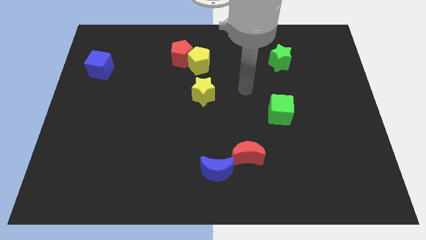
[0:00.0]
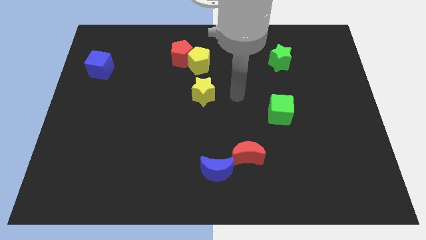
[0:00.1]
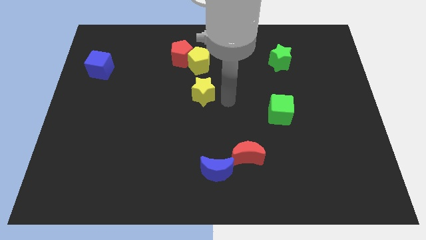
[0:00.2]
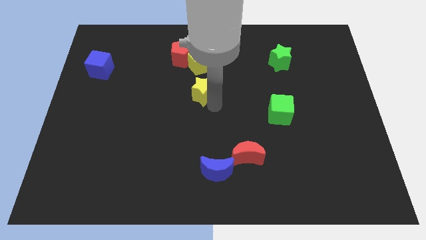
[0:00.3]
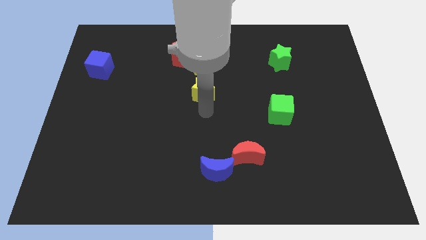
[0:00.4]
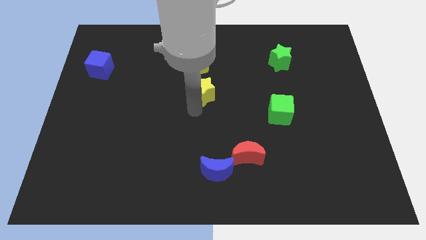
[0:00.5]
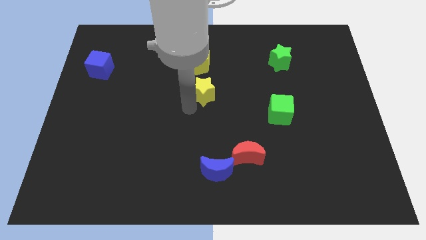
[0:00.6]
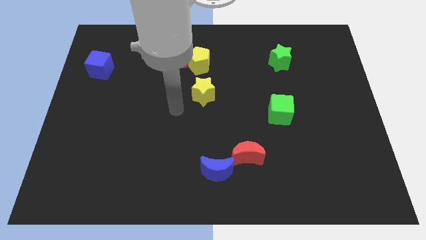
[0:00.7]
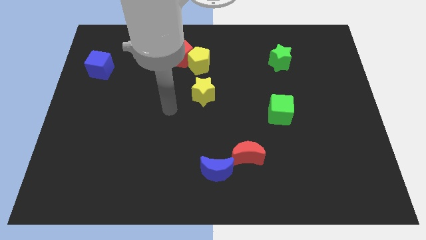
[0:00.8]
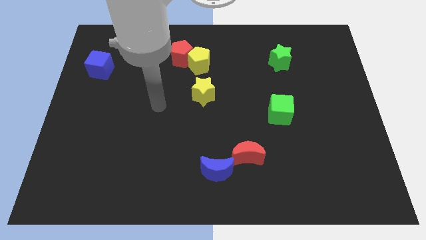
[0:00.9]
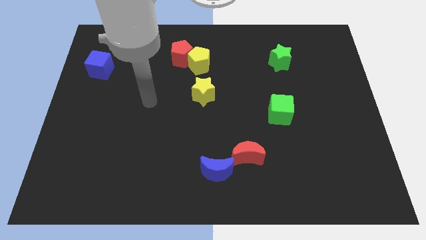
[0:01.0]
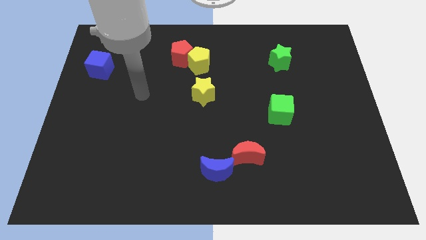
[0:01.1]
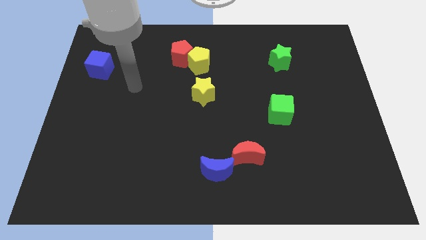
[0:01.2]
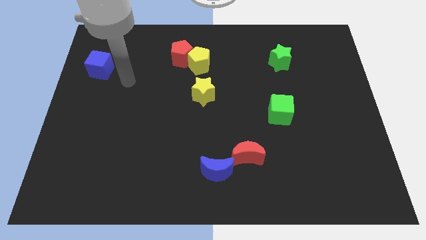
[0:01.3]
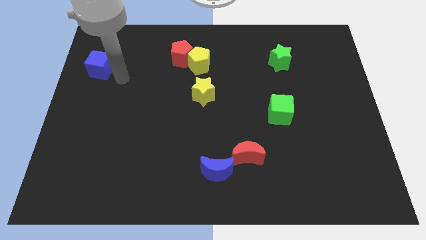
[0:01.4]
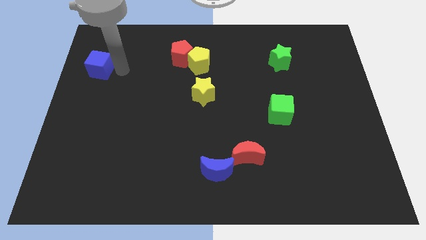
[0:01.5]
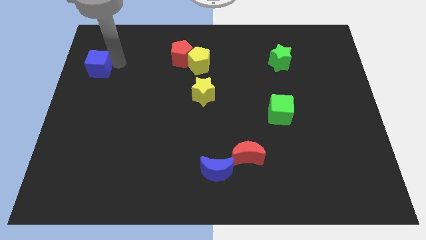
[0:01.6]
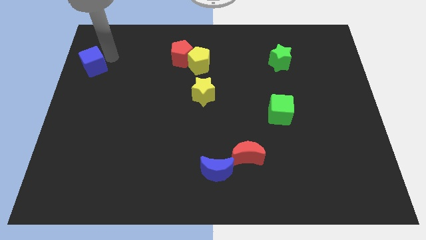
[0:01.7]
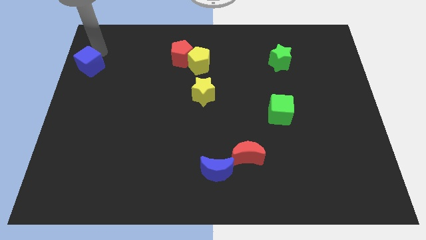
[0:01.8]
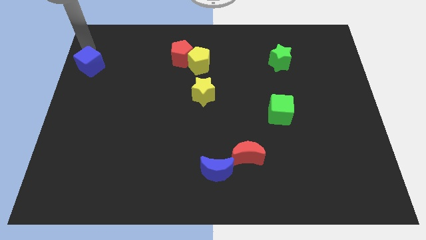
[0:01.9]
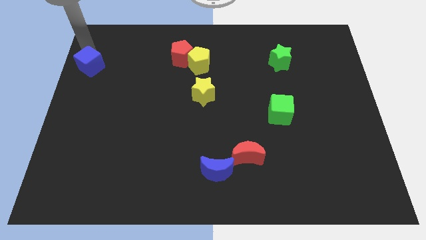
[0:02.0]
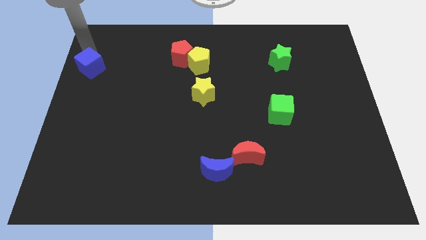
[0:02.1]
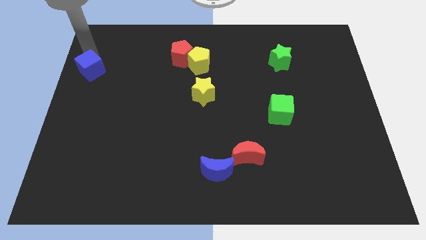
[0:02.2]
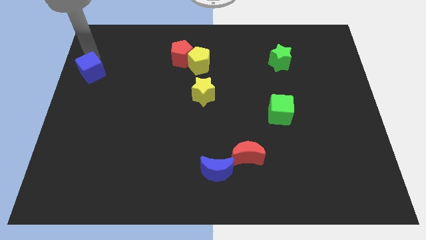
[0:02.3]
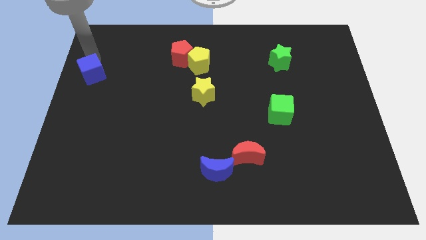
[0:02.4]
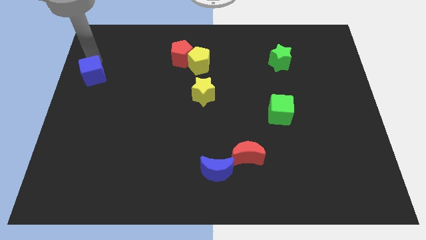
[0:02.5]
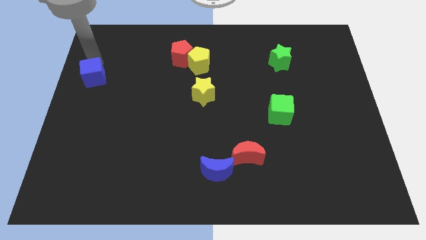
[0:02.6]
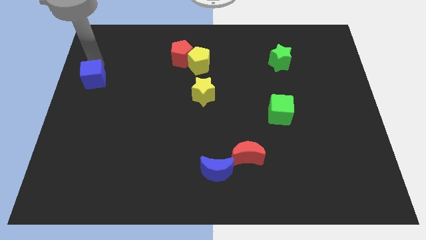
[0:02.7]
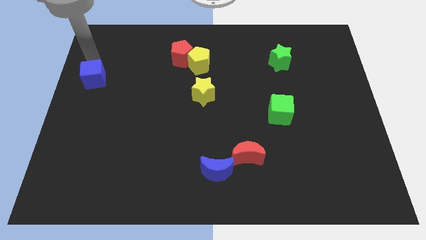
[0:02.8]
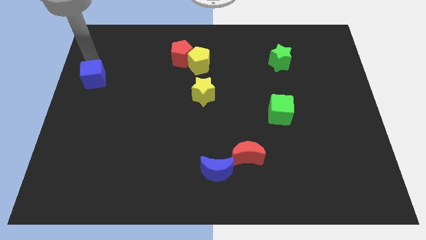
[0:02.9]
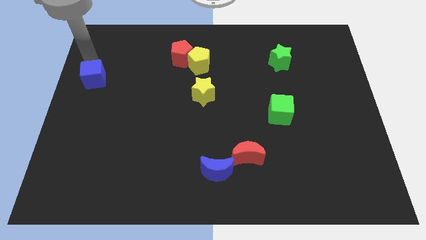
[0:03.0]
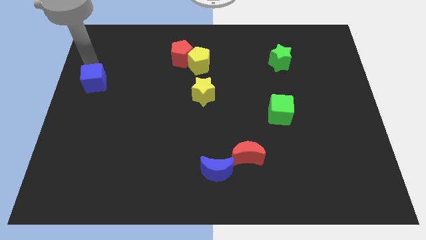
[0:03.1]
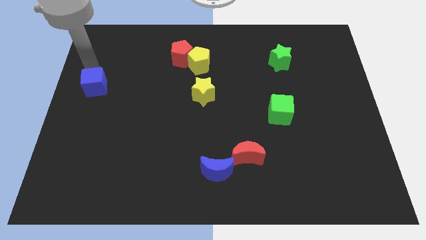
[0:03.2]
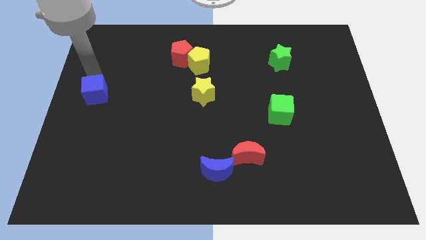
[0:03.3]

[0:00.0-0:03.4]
slide the blue cube down somewhat

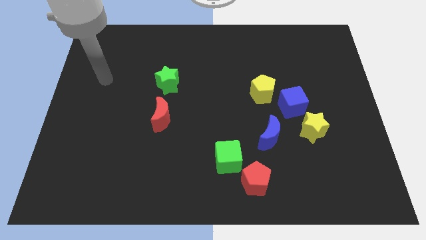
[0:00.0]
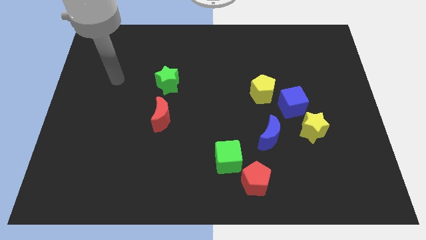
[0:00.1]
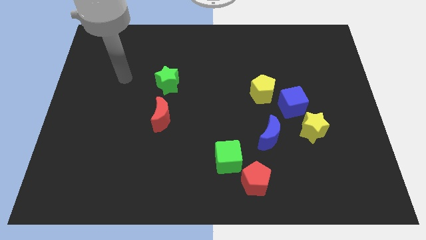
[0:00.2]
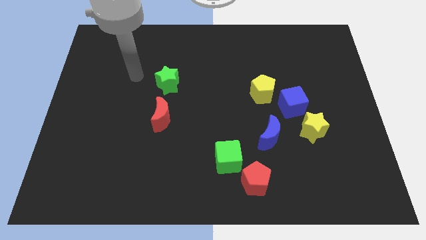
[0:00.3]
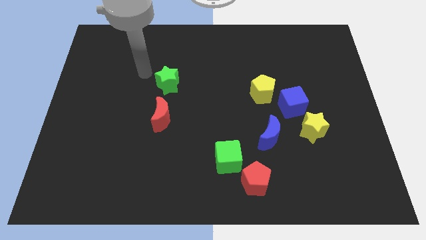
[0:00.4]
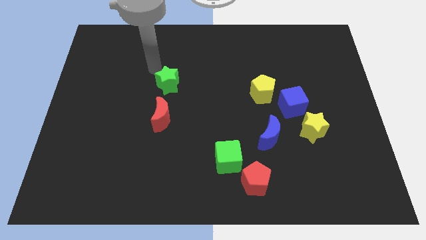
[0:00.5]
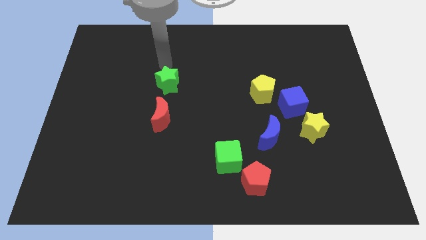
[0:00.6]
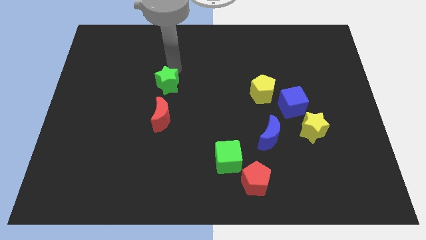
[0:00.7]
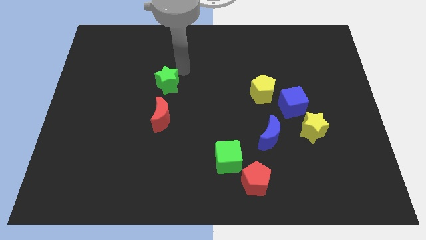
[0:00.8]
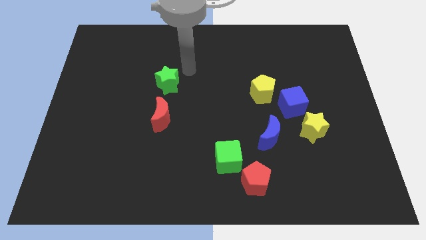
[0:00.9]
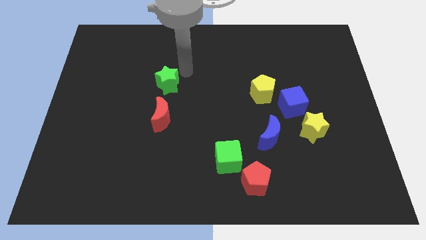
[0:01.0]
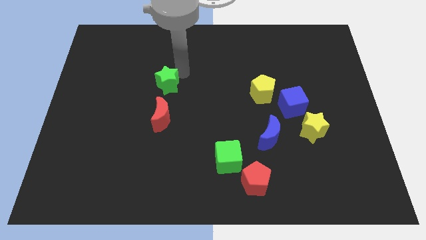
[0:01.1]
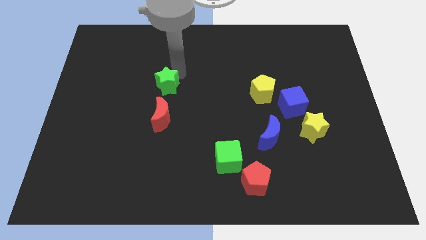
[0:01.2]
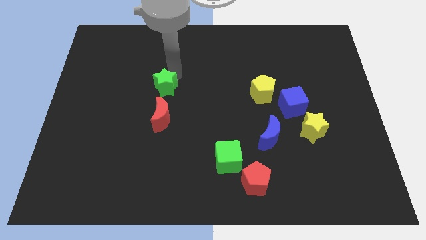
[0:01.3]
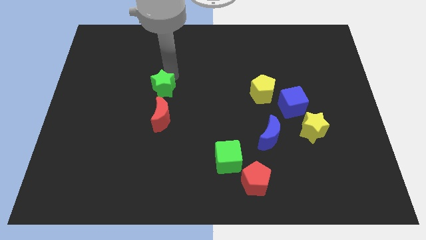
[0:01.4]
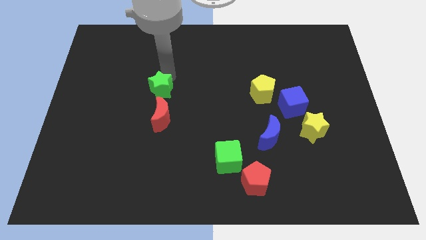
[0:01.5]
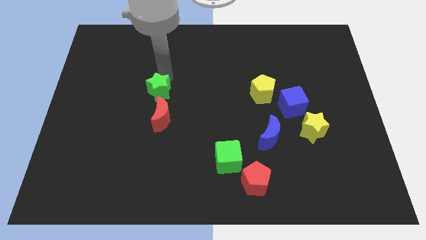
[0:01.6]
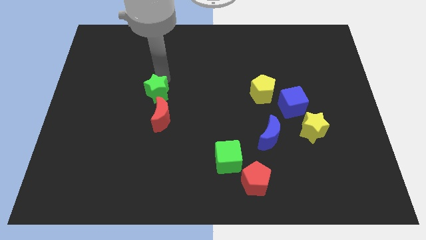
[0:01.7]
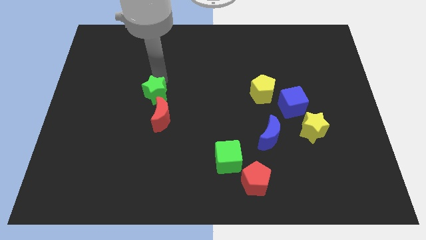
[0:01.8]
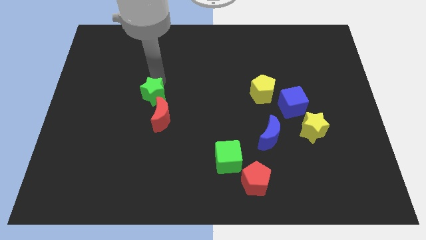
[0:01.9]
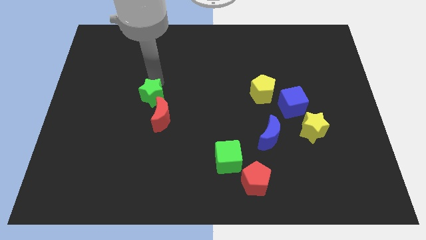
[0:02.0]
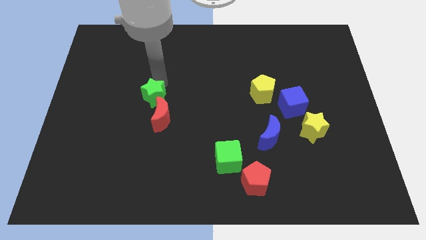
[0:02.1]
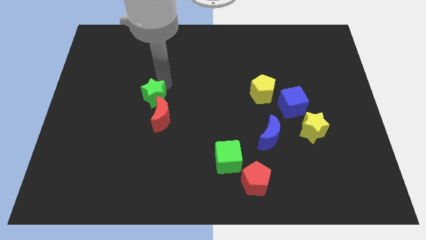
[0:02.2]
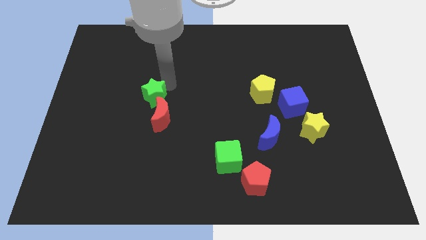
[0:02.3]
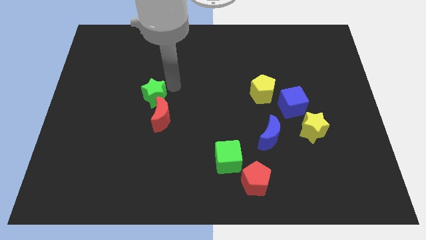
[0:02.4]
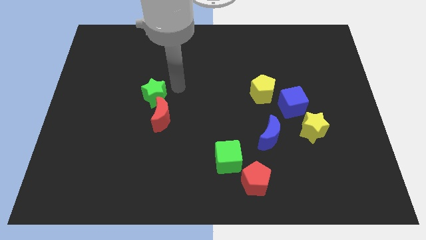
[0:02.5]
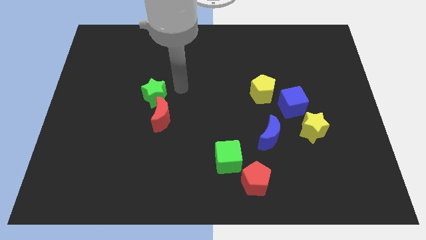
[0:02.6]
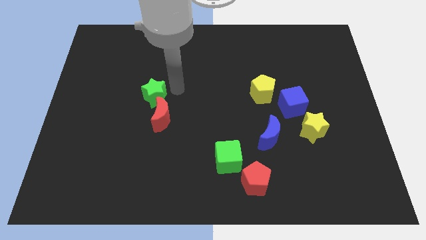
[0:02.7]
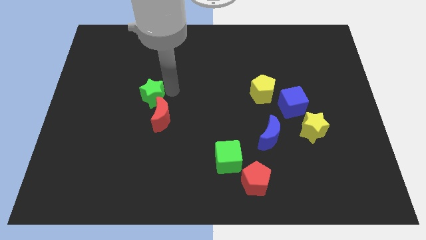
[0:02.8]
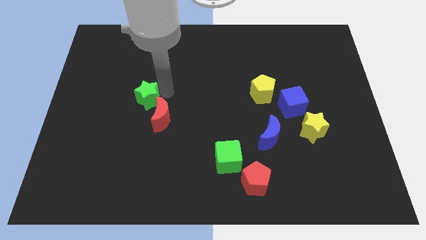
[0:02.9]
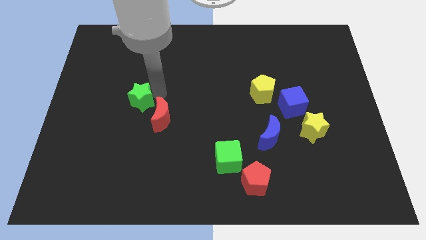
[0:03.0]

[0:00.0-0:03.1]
slightly slide the green star downwards and then to the left

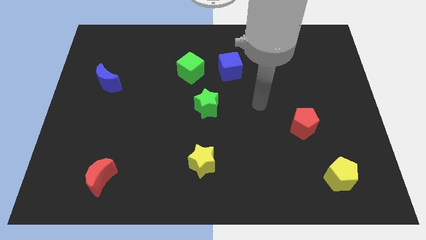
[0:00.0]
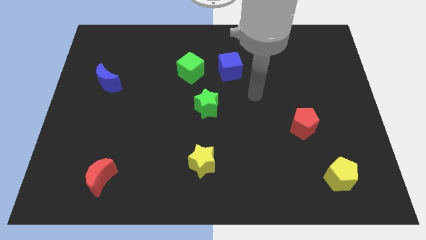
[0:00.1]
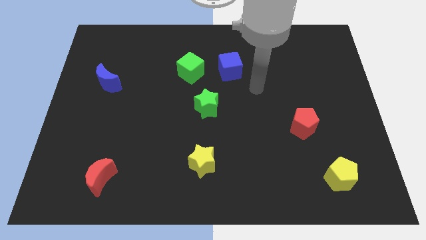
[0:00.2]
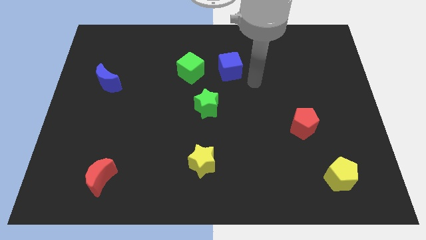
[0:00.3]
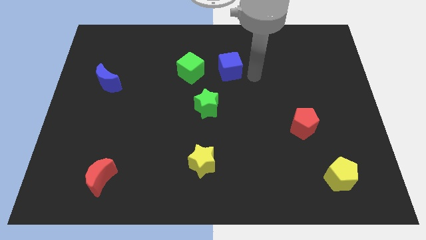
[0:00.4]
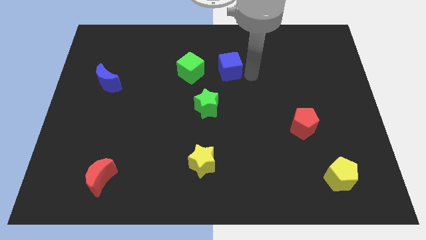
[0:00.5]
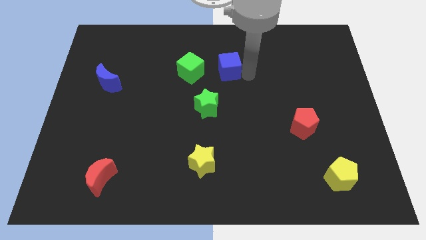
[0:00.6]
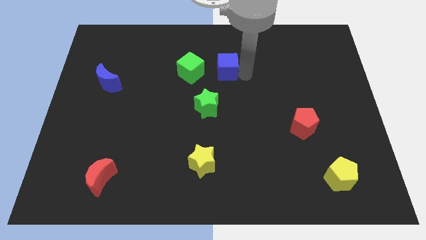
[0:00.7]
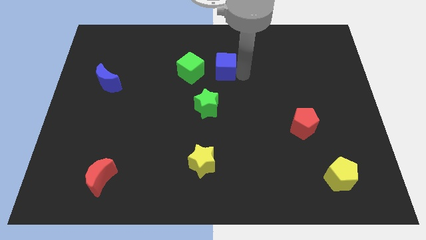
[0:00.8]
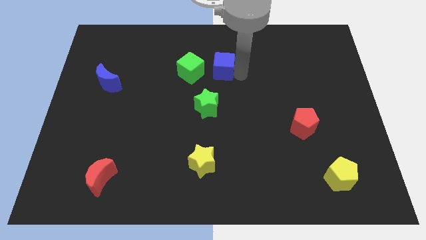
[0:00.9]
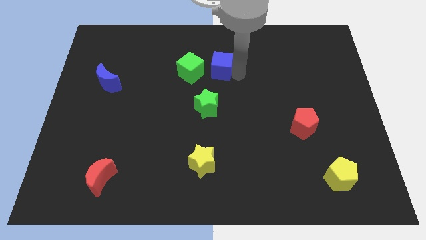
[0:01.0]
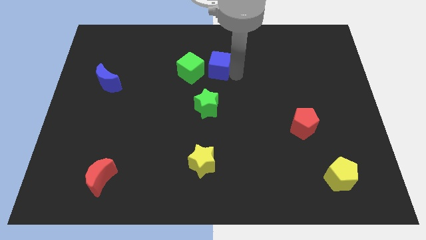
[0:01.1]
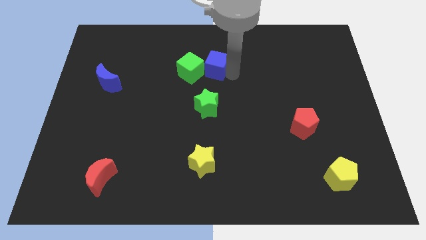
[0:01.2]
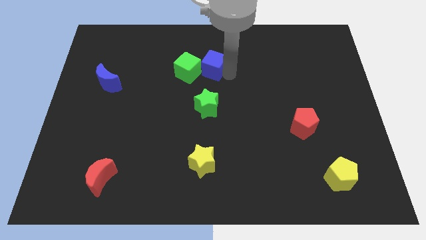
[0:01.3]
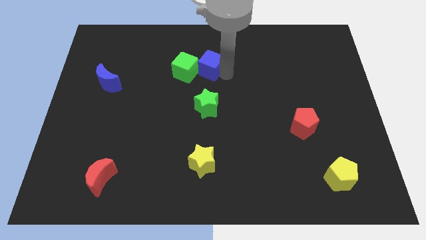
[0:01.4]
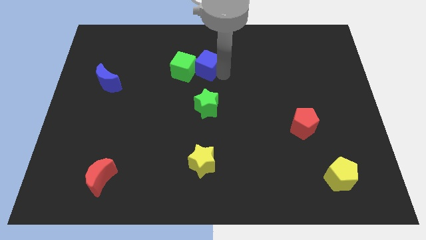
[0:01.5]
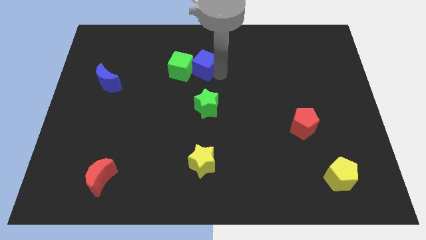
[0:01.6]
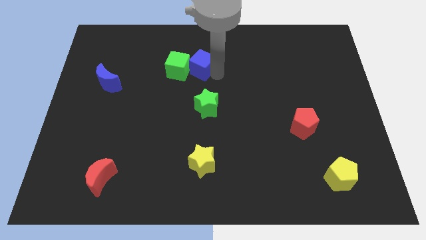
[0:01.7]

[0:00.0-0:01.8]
slightly push the blue cube to the left
